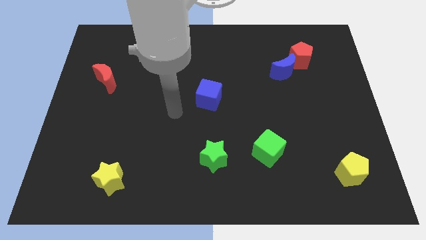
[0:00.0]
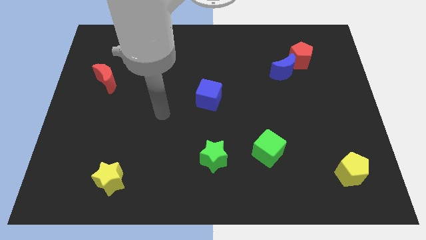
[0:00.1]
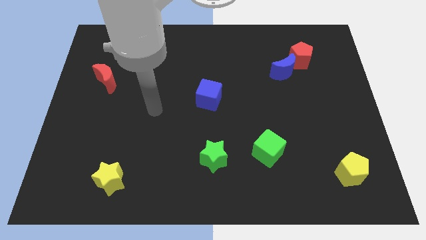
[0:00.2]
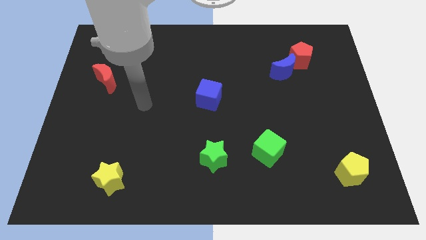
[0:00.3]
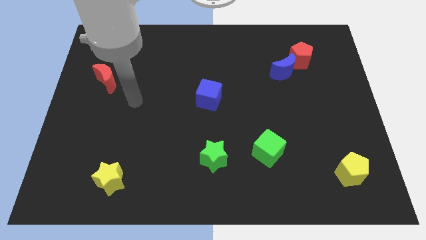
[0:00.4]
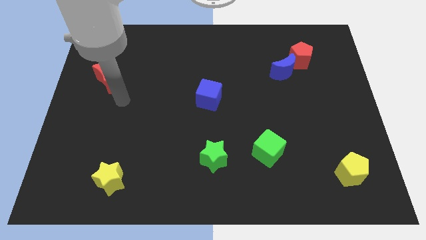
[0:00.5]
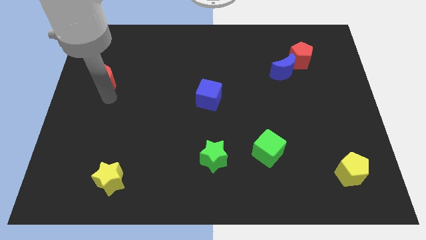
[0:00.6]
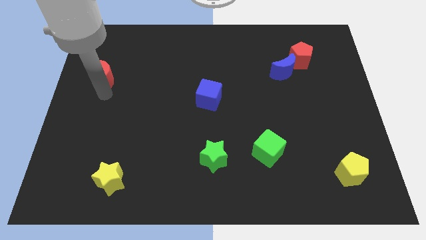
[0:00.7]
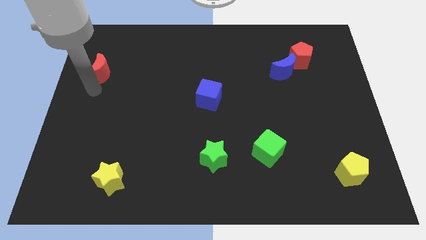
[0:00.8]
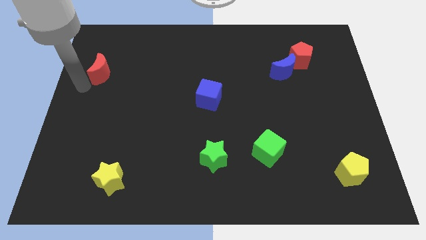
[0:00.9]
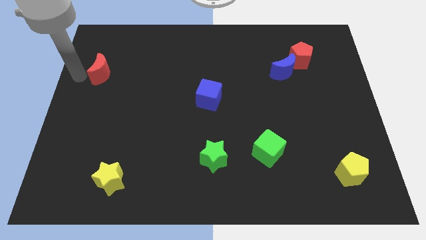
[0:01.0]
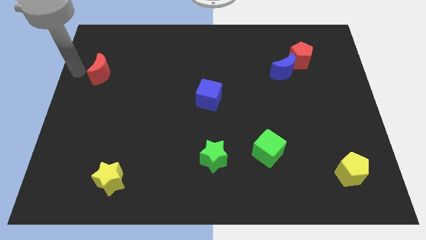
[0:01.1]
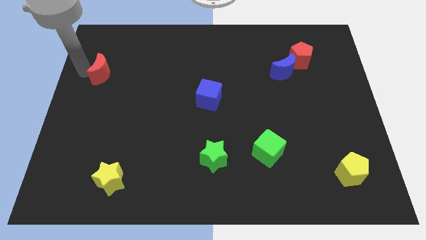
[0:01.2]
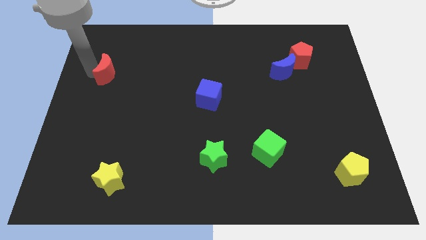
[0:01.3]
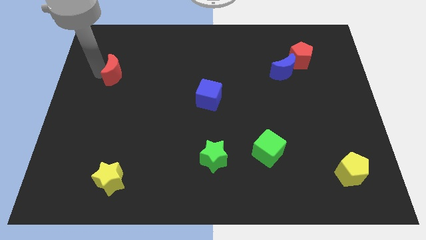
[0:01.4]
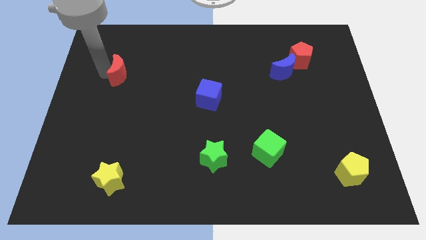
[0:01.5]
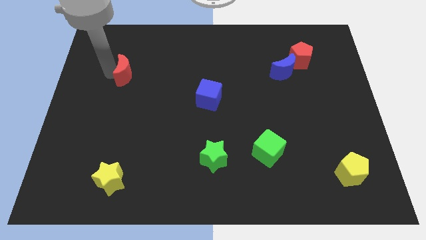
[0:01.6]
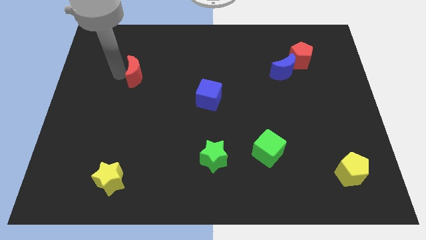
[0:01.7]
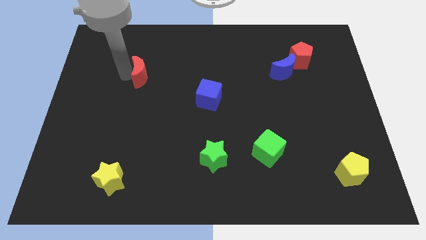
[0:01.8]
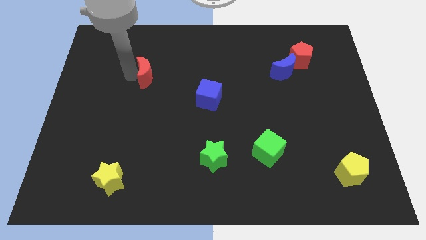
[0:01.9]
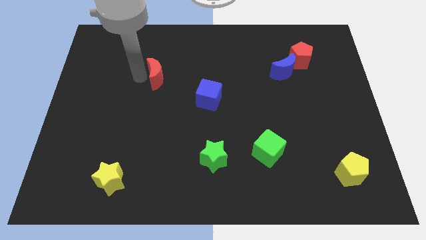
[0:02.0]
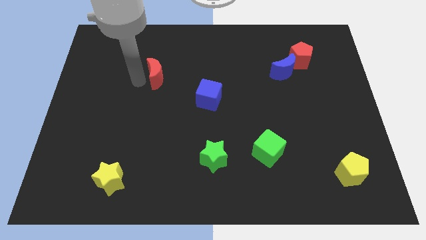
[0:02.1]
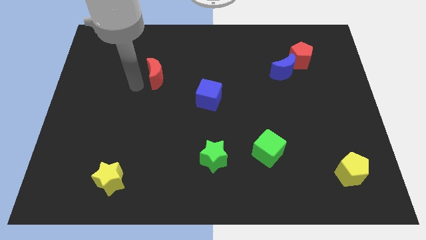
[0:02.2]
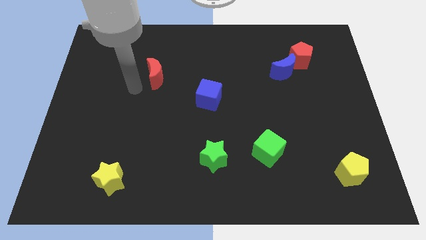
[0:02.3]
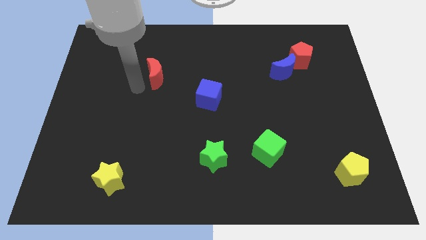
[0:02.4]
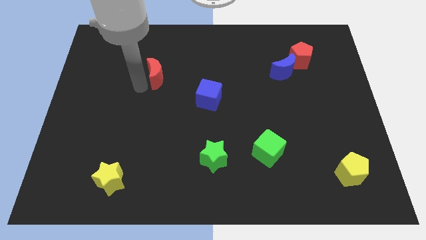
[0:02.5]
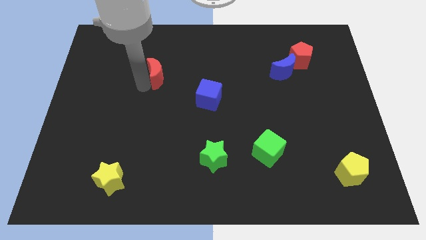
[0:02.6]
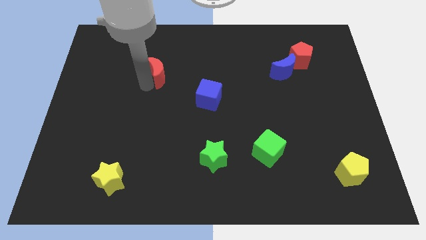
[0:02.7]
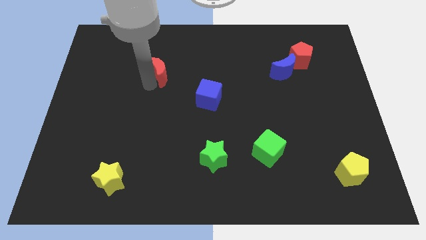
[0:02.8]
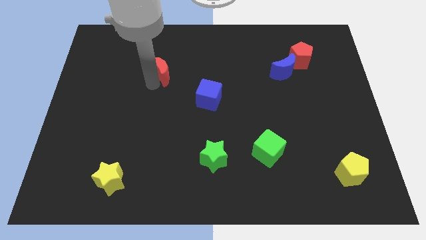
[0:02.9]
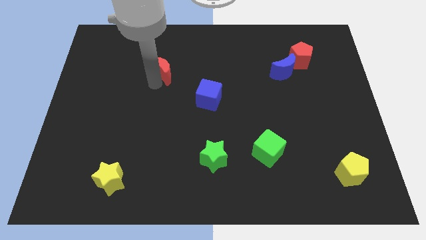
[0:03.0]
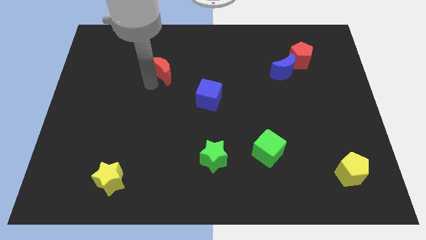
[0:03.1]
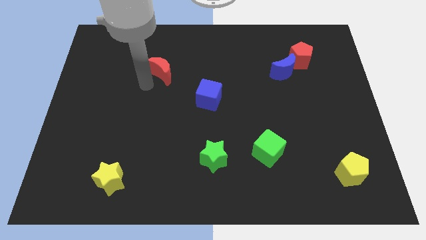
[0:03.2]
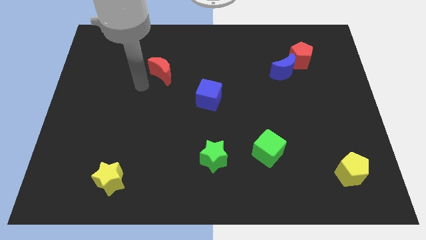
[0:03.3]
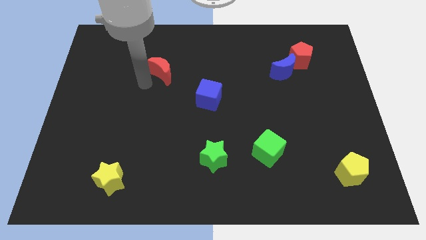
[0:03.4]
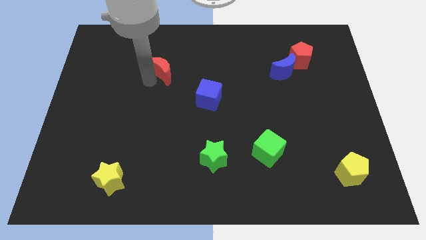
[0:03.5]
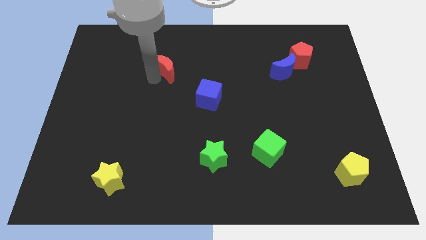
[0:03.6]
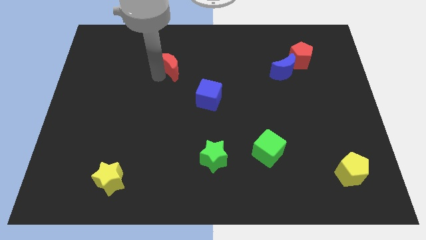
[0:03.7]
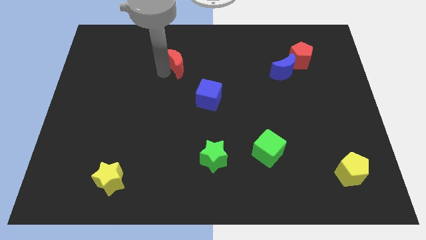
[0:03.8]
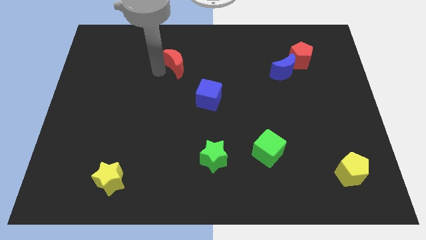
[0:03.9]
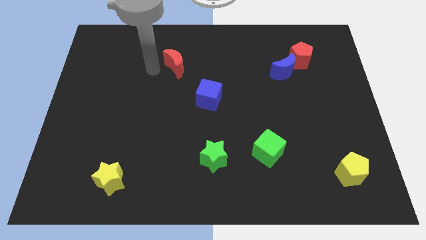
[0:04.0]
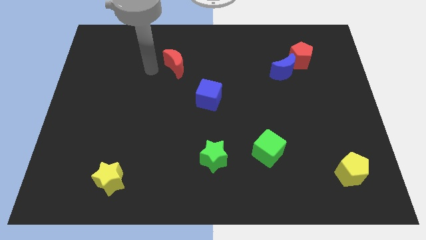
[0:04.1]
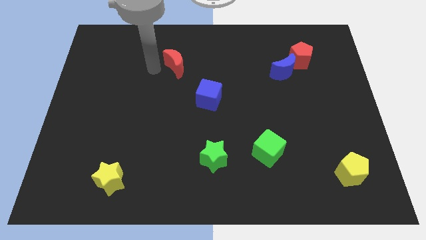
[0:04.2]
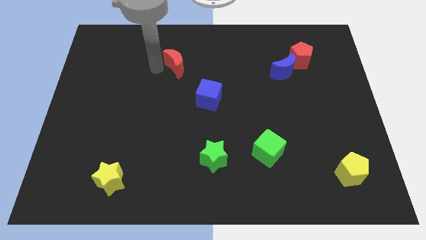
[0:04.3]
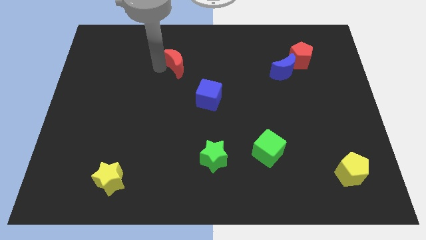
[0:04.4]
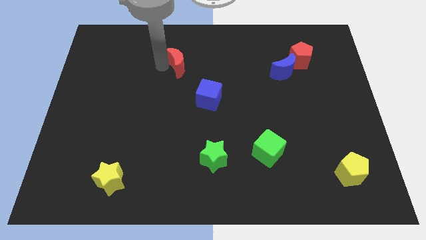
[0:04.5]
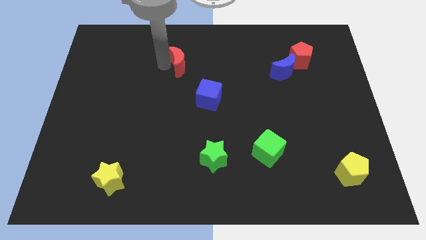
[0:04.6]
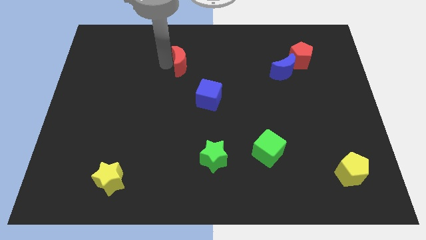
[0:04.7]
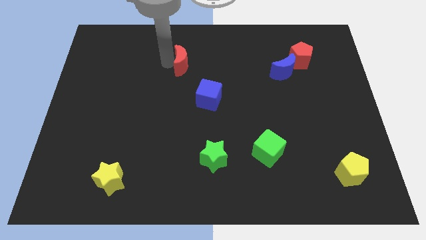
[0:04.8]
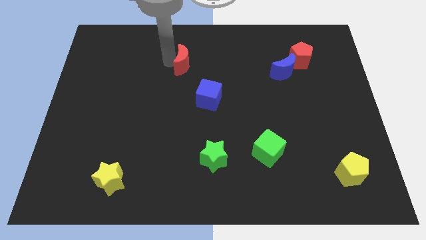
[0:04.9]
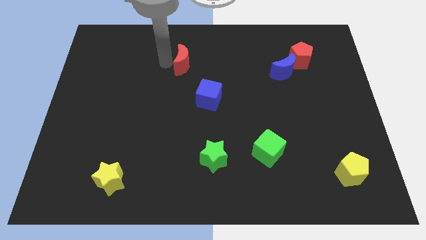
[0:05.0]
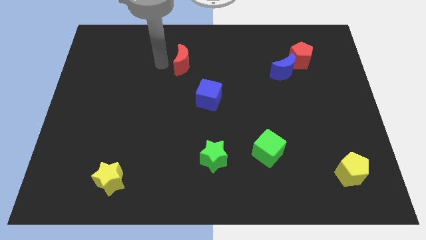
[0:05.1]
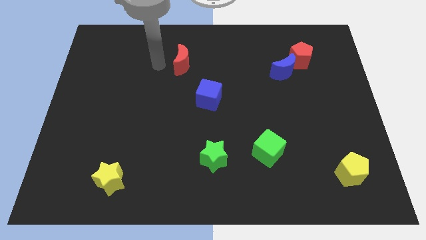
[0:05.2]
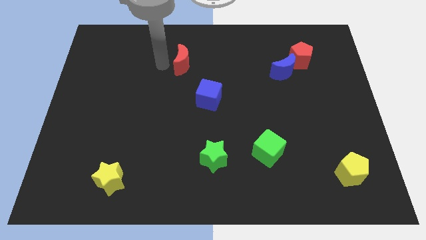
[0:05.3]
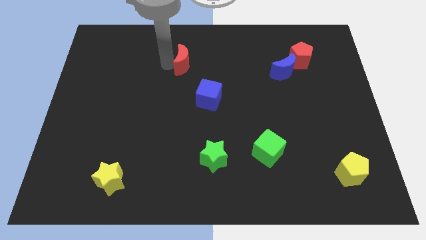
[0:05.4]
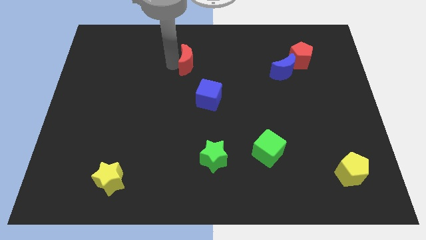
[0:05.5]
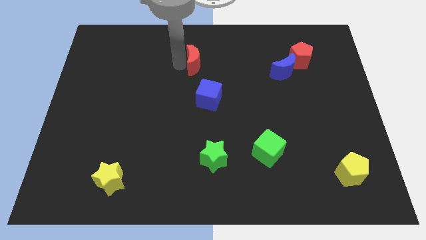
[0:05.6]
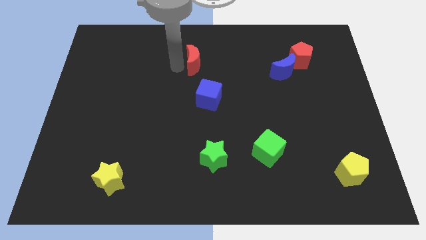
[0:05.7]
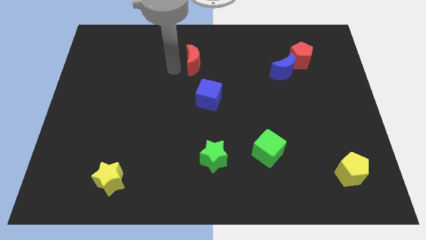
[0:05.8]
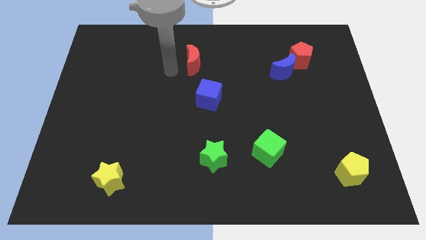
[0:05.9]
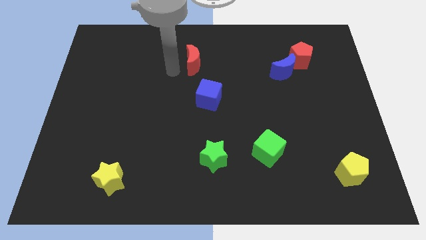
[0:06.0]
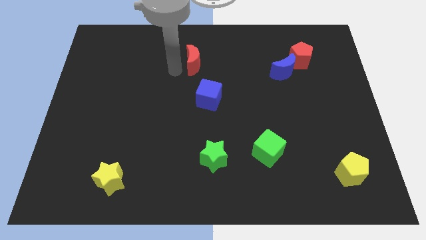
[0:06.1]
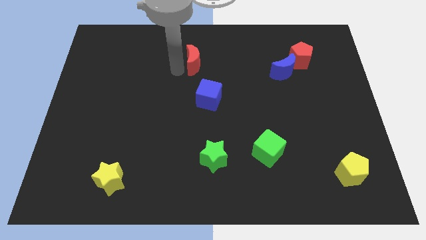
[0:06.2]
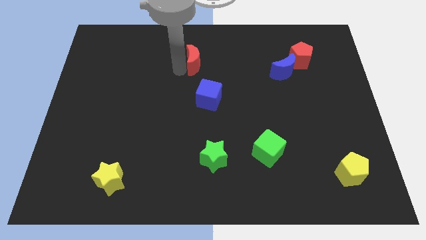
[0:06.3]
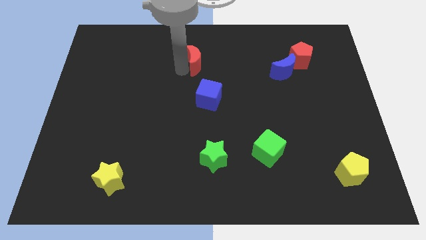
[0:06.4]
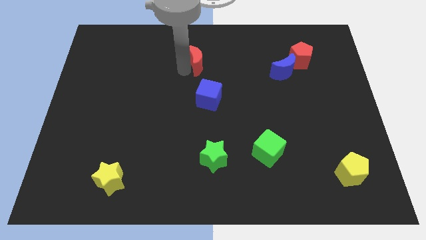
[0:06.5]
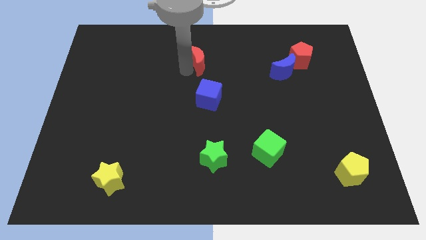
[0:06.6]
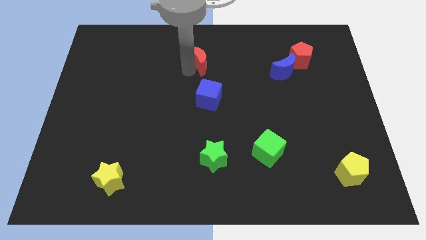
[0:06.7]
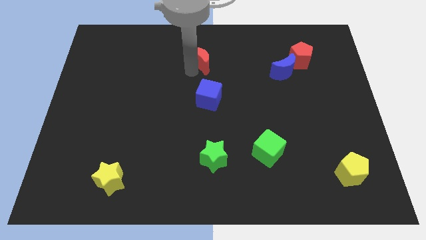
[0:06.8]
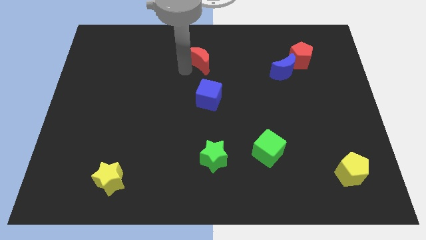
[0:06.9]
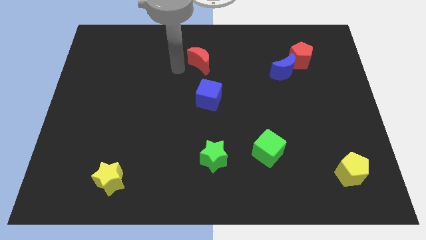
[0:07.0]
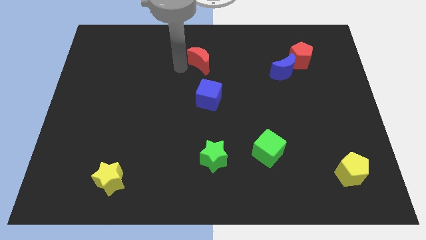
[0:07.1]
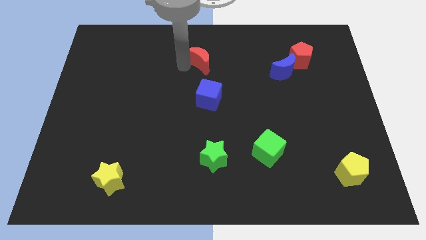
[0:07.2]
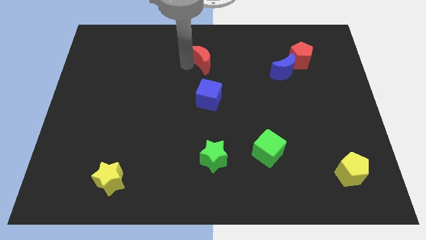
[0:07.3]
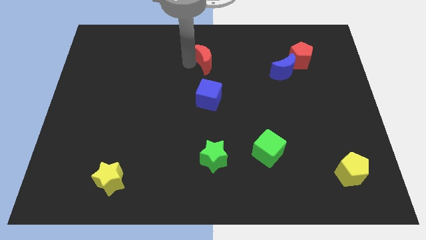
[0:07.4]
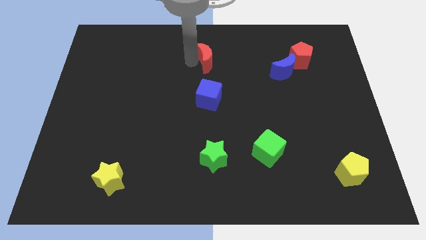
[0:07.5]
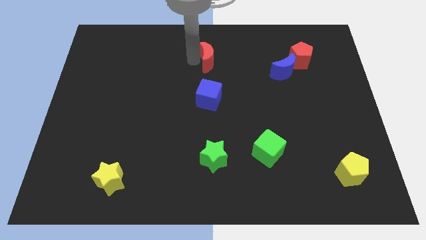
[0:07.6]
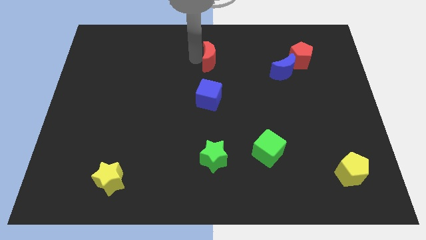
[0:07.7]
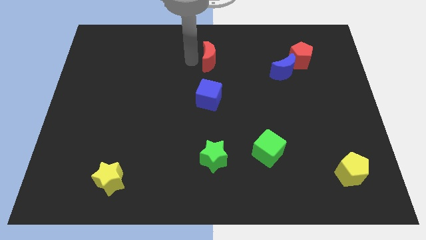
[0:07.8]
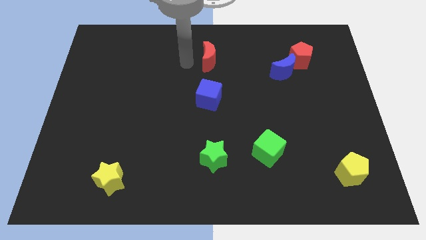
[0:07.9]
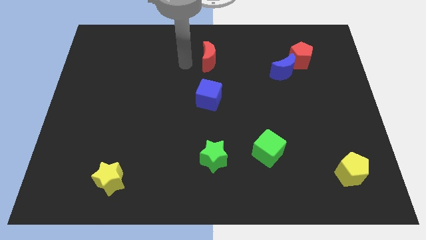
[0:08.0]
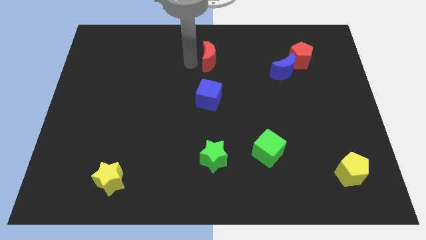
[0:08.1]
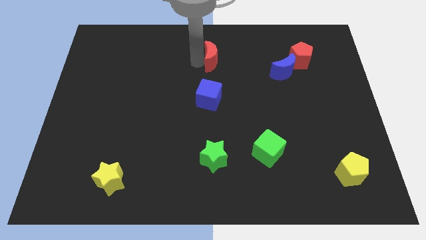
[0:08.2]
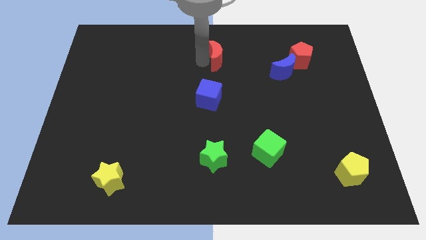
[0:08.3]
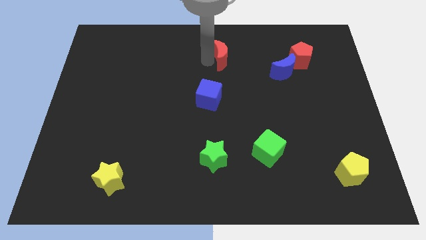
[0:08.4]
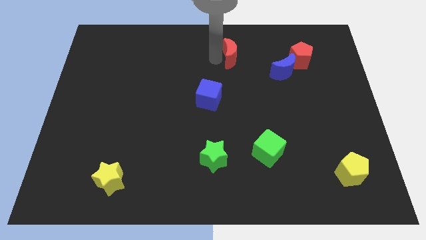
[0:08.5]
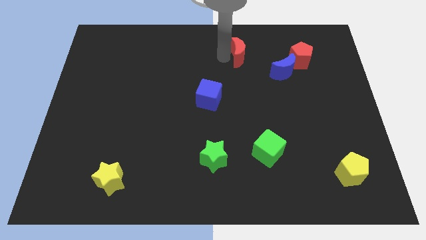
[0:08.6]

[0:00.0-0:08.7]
move the red moon just left of the red pentagon
